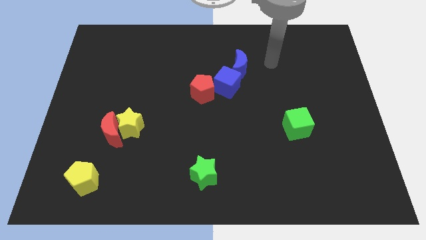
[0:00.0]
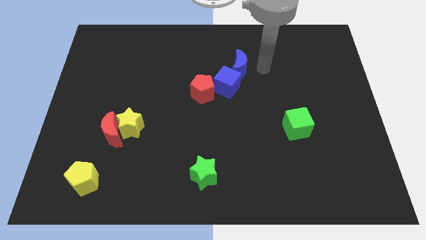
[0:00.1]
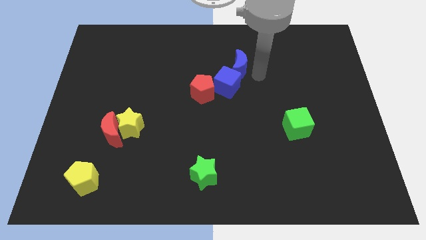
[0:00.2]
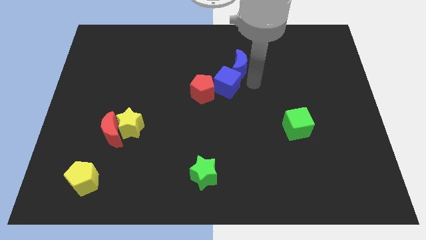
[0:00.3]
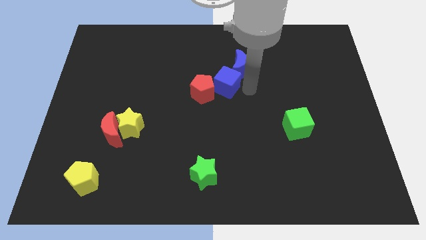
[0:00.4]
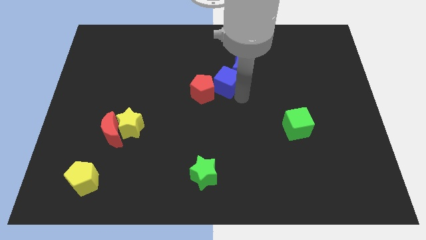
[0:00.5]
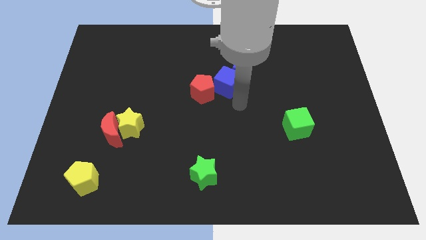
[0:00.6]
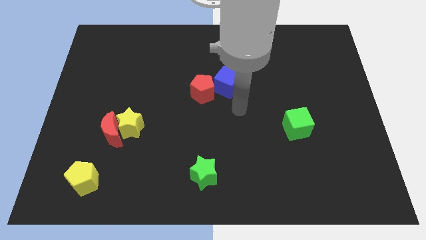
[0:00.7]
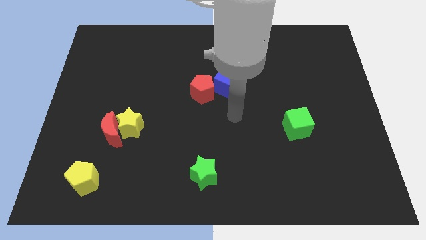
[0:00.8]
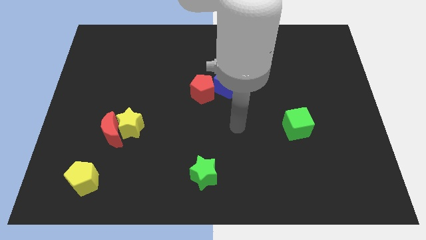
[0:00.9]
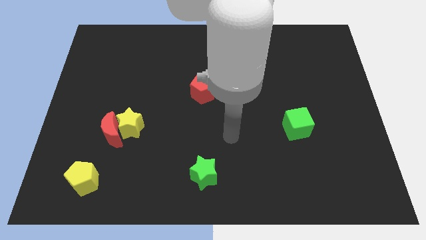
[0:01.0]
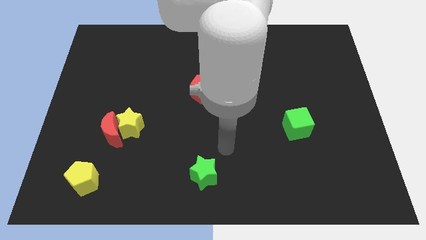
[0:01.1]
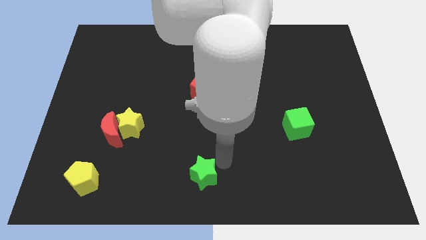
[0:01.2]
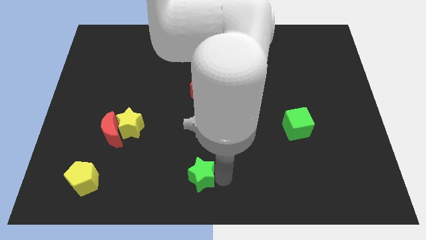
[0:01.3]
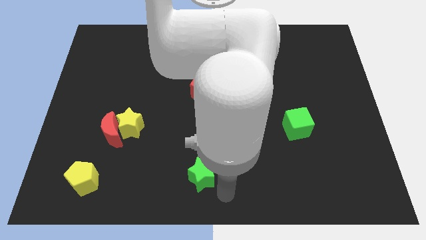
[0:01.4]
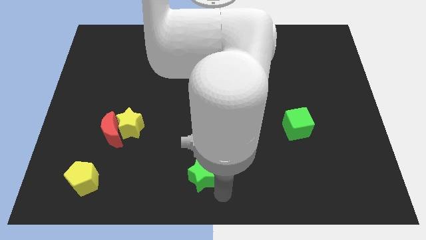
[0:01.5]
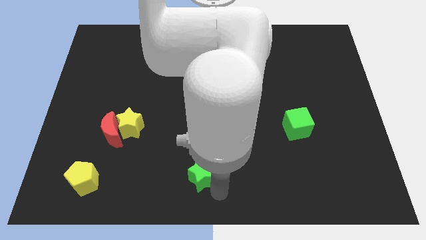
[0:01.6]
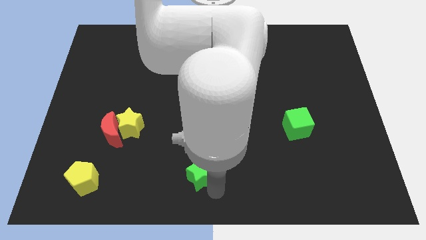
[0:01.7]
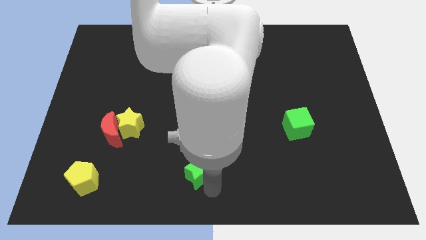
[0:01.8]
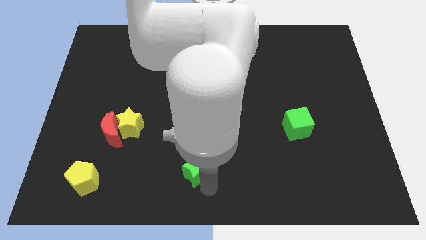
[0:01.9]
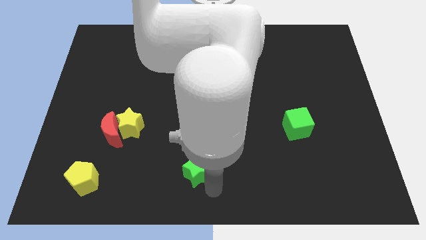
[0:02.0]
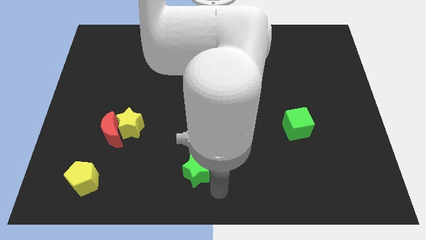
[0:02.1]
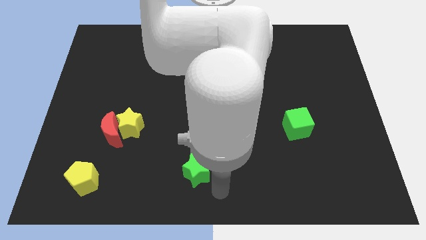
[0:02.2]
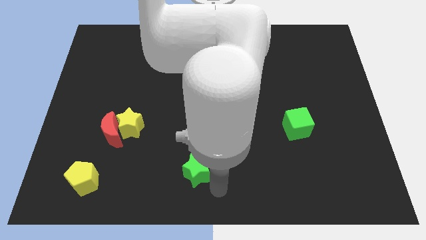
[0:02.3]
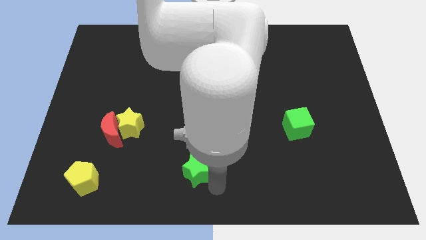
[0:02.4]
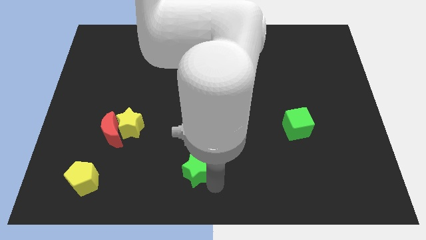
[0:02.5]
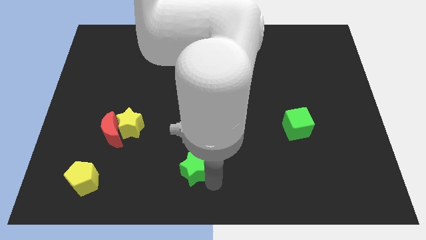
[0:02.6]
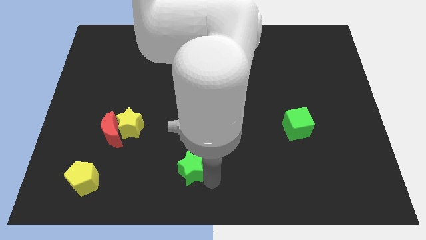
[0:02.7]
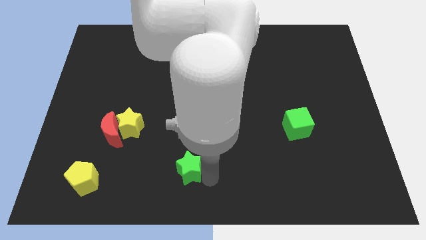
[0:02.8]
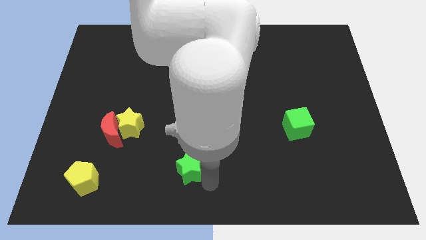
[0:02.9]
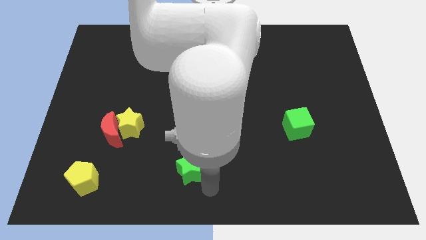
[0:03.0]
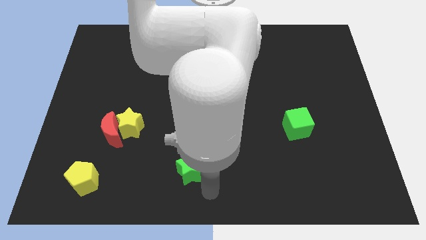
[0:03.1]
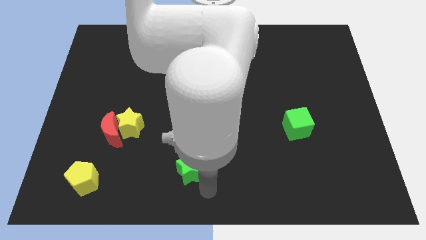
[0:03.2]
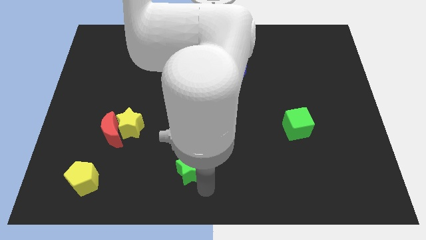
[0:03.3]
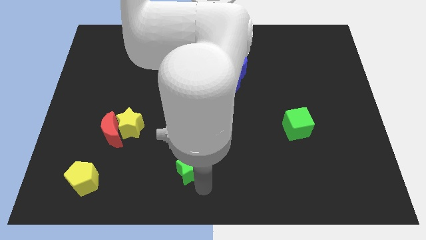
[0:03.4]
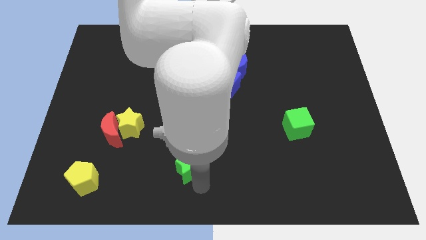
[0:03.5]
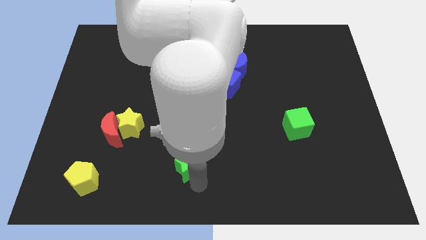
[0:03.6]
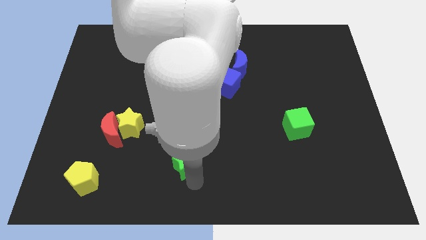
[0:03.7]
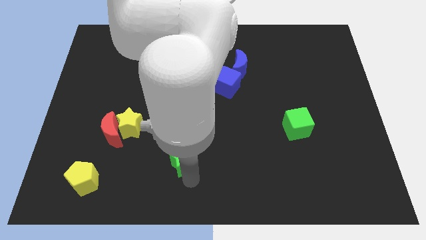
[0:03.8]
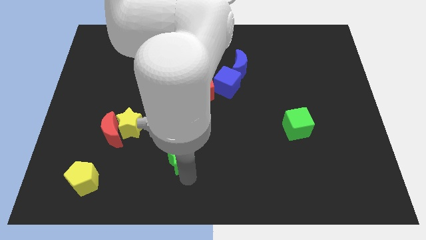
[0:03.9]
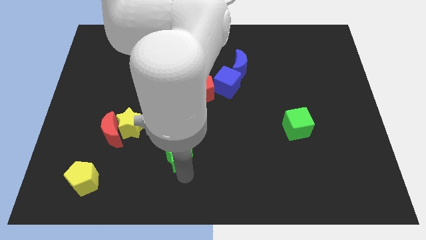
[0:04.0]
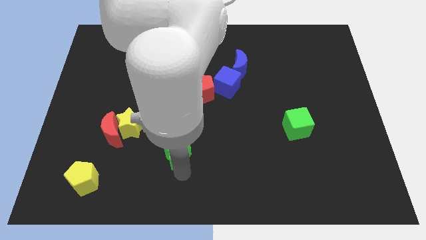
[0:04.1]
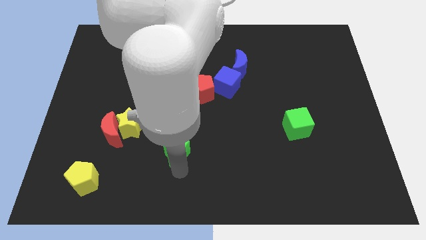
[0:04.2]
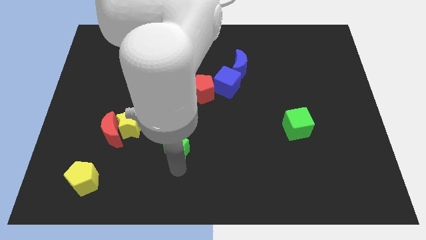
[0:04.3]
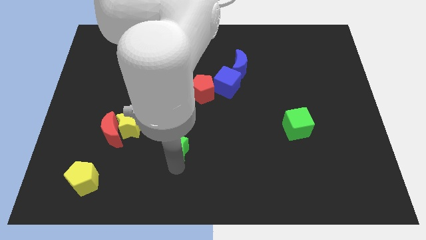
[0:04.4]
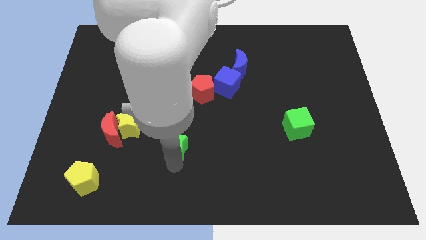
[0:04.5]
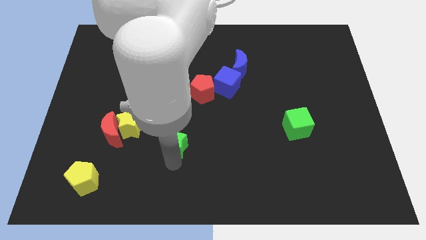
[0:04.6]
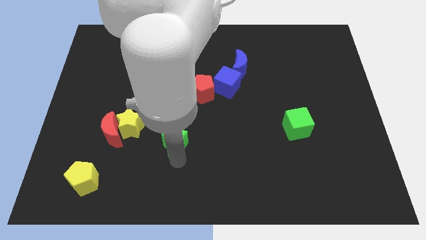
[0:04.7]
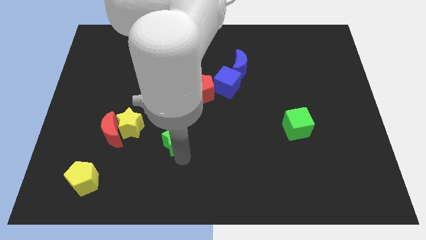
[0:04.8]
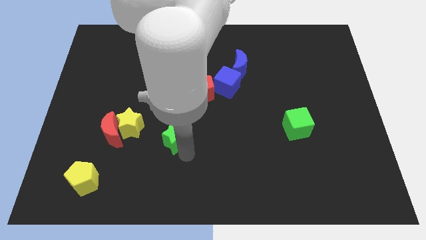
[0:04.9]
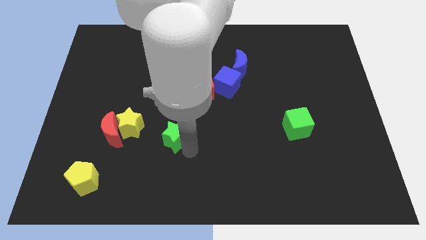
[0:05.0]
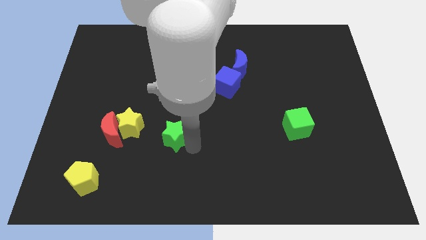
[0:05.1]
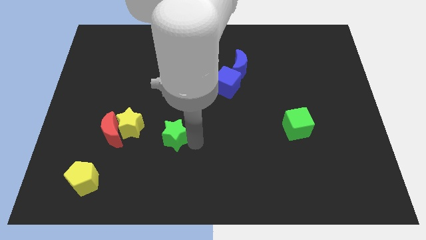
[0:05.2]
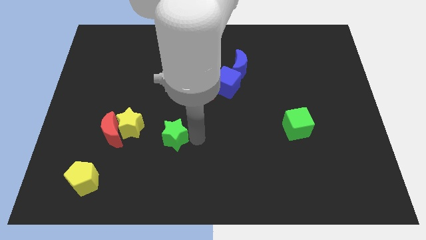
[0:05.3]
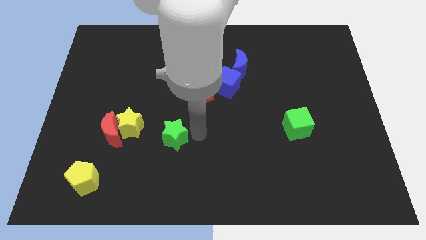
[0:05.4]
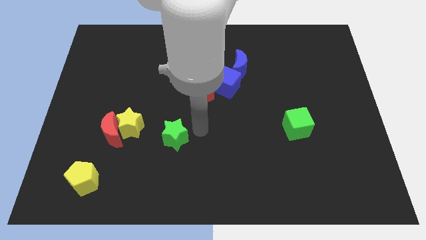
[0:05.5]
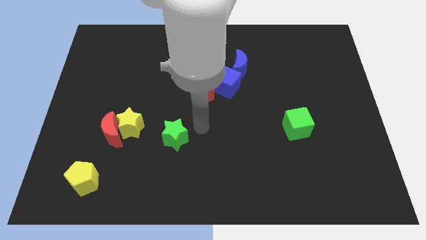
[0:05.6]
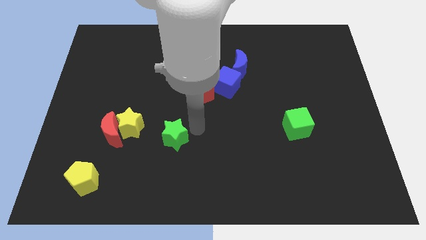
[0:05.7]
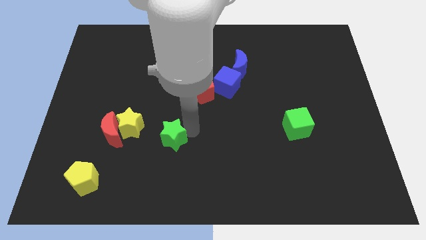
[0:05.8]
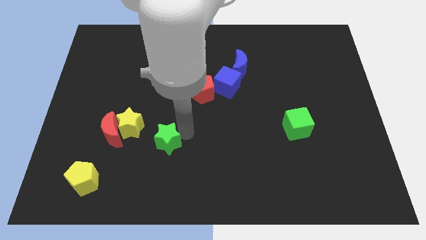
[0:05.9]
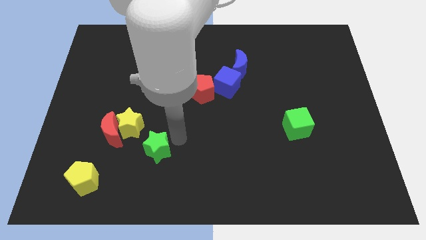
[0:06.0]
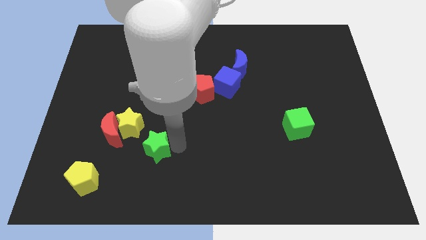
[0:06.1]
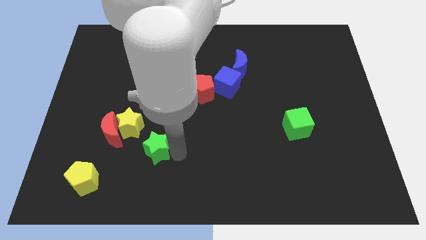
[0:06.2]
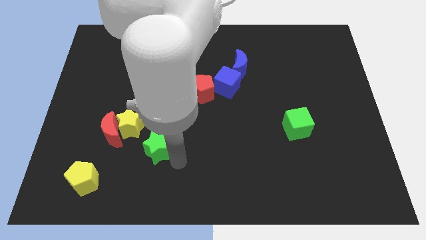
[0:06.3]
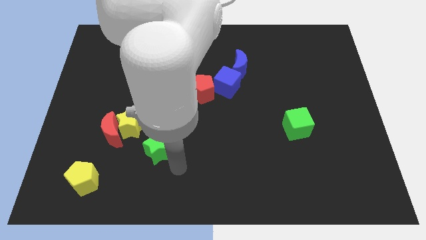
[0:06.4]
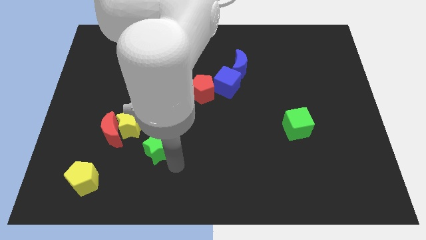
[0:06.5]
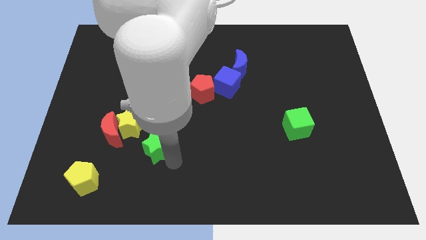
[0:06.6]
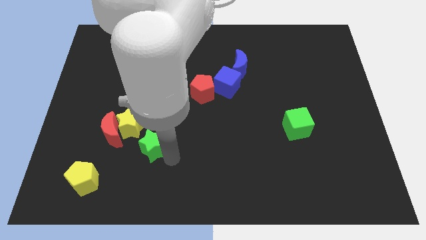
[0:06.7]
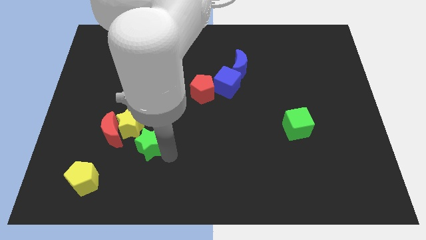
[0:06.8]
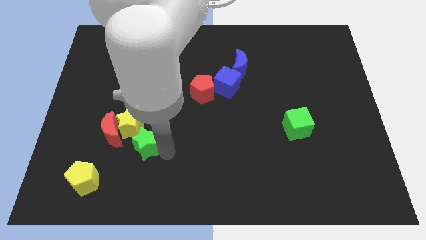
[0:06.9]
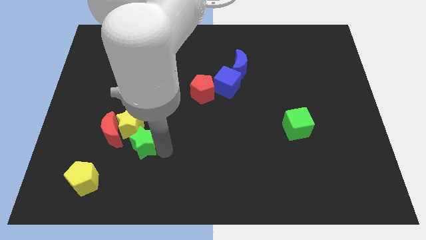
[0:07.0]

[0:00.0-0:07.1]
move the green star close to the yellow star
